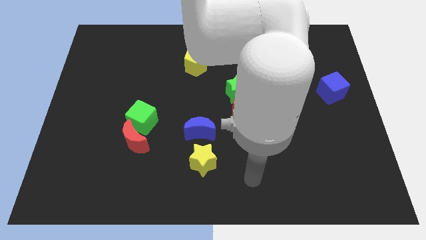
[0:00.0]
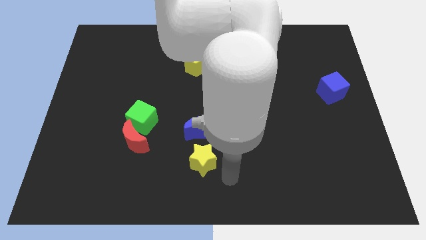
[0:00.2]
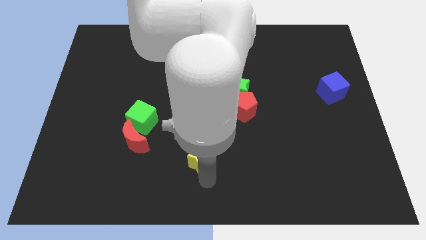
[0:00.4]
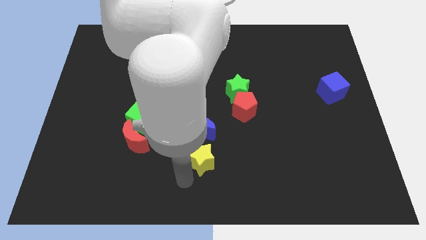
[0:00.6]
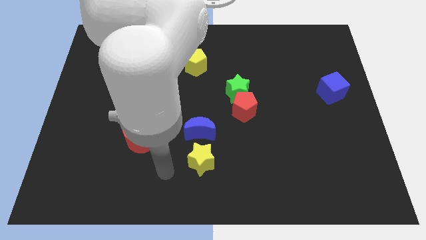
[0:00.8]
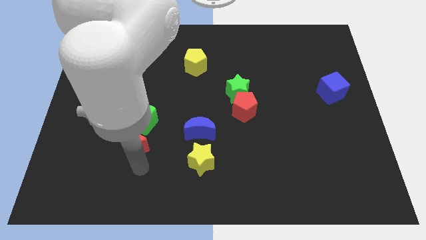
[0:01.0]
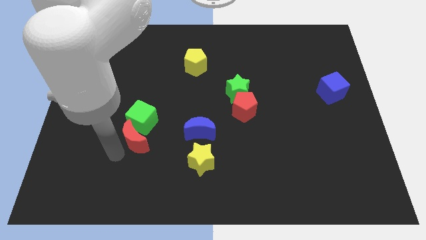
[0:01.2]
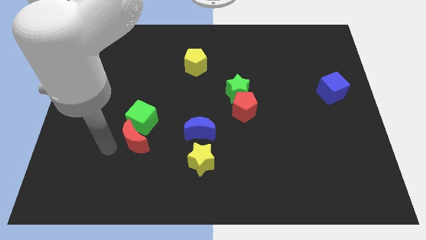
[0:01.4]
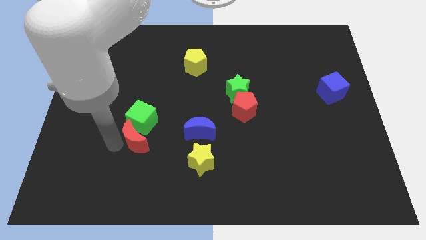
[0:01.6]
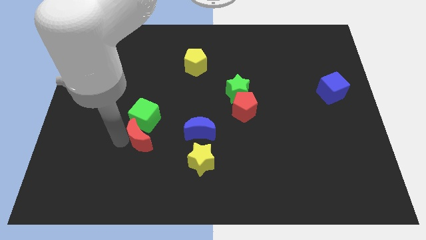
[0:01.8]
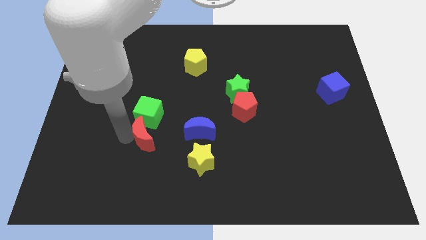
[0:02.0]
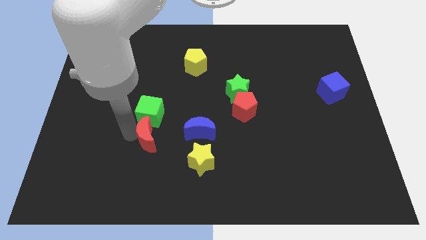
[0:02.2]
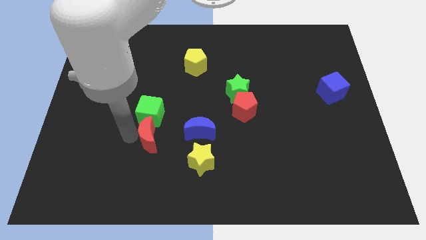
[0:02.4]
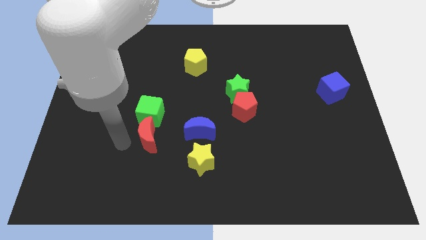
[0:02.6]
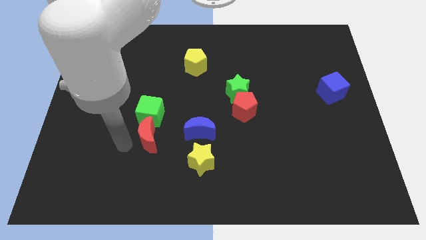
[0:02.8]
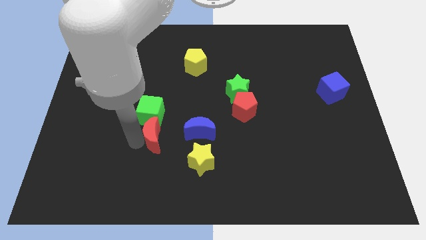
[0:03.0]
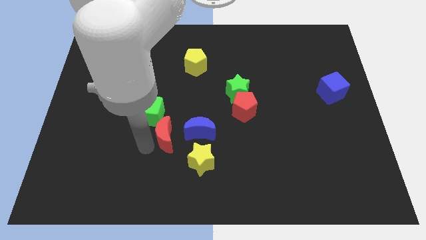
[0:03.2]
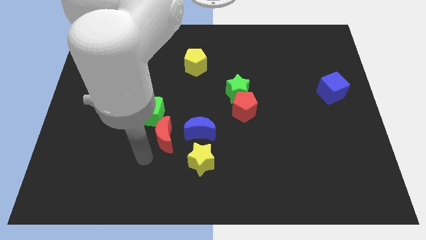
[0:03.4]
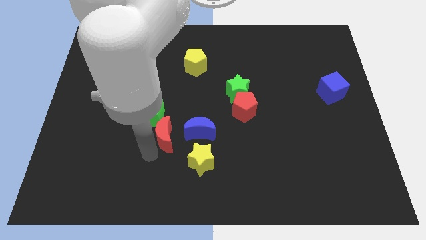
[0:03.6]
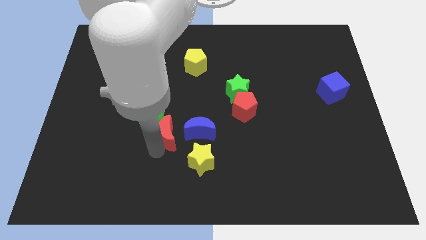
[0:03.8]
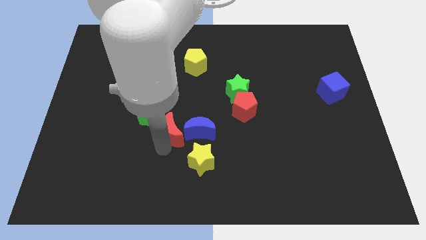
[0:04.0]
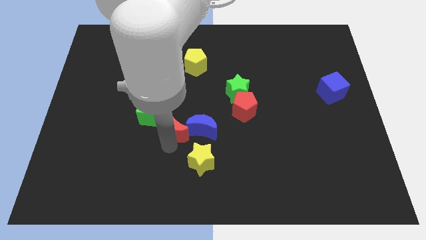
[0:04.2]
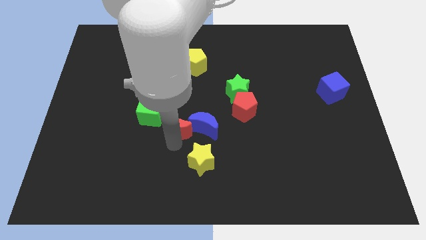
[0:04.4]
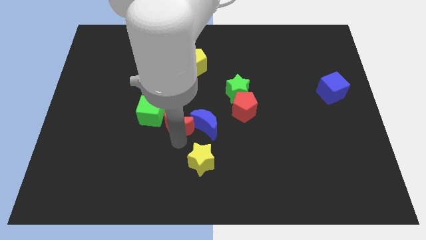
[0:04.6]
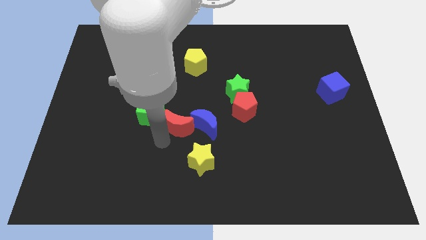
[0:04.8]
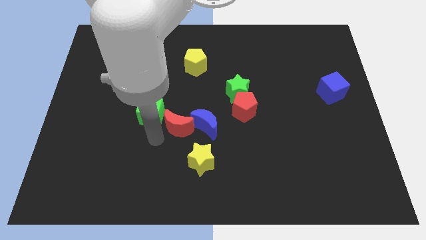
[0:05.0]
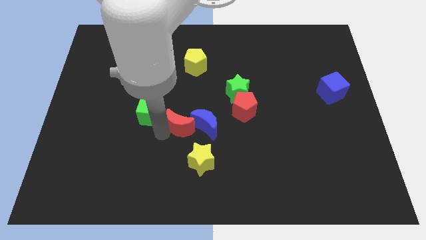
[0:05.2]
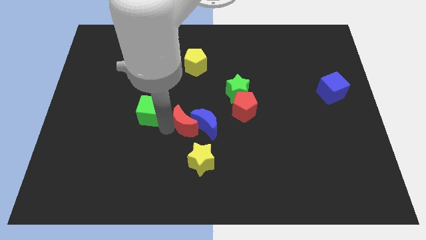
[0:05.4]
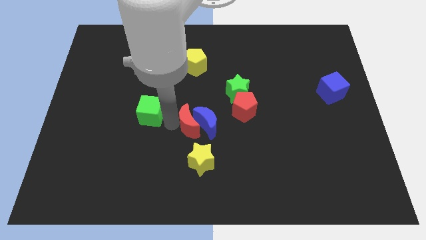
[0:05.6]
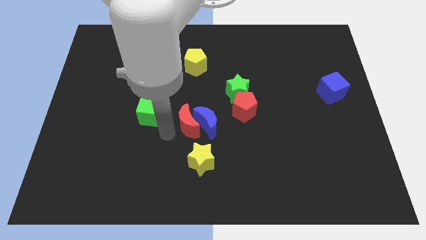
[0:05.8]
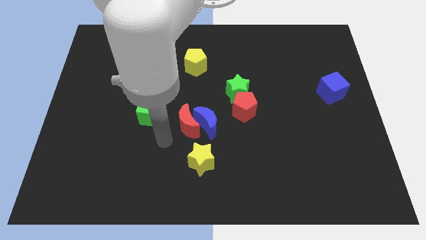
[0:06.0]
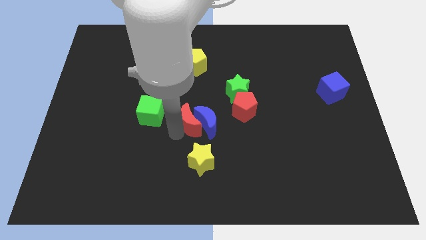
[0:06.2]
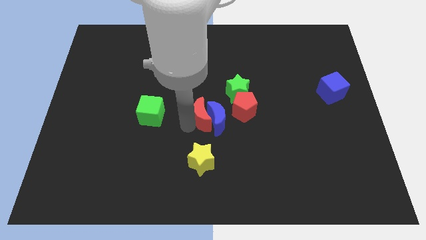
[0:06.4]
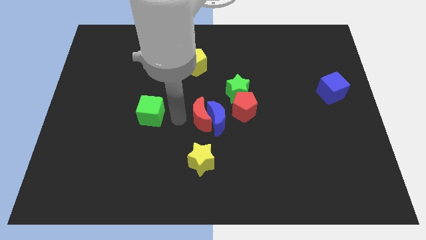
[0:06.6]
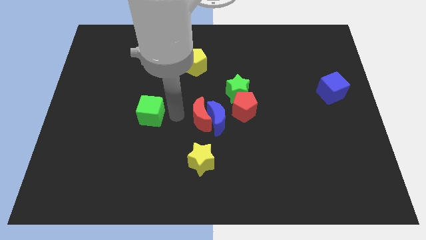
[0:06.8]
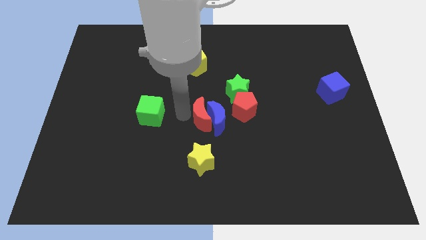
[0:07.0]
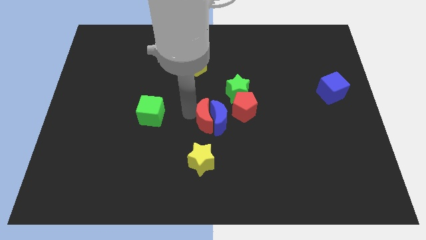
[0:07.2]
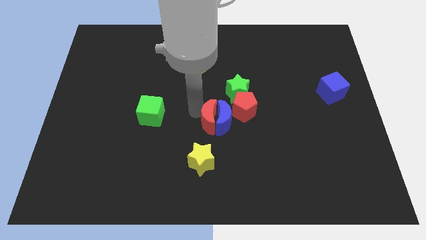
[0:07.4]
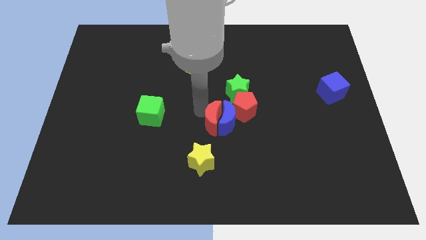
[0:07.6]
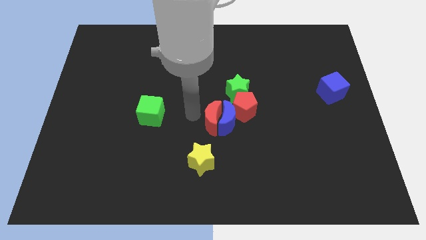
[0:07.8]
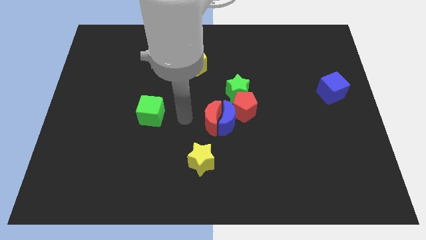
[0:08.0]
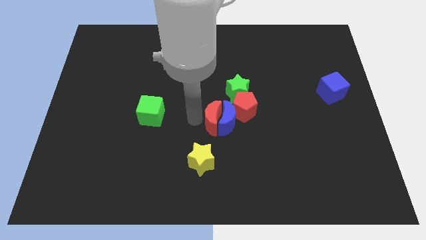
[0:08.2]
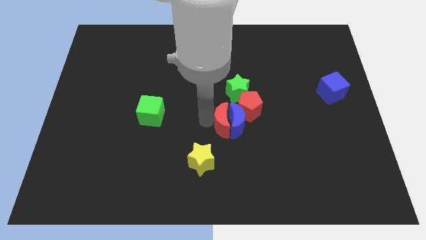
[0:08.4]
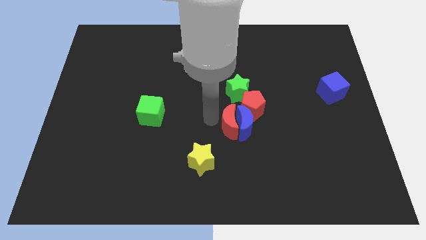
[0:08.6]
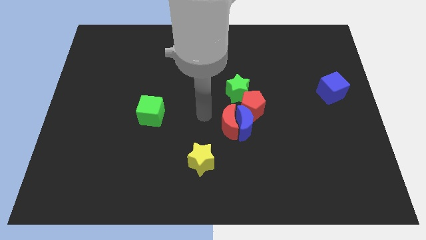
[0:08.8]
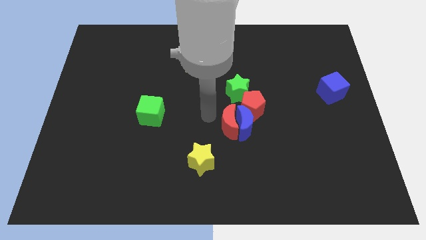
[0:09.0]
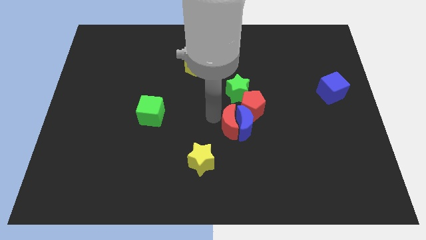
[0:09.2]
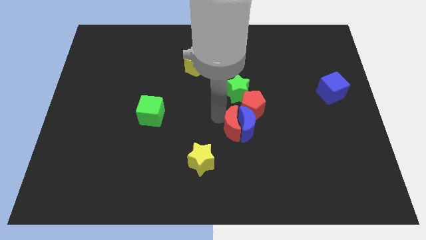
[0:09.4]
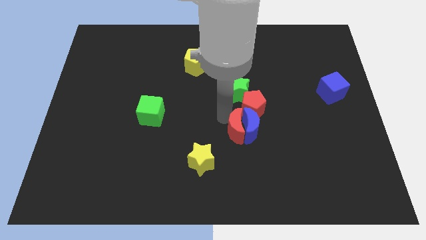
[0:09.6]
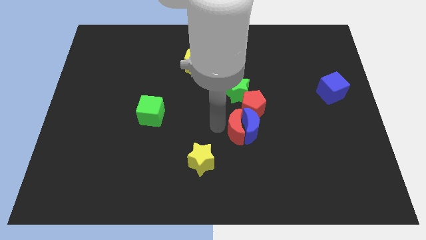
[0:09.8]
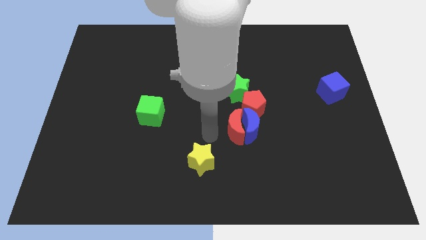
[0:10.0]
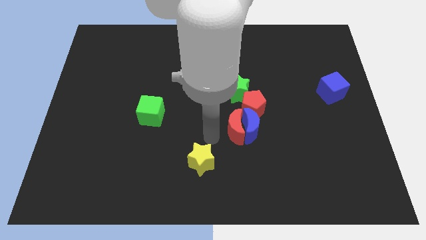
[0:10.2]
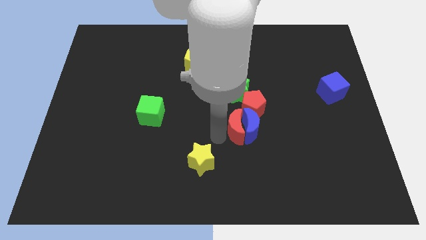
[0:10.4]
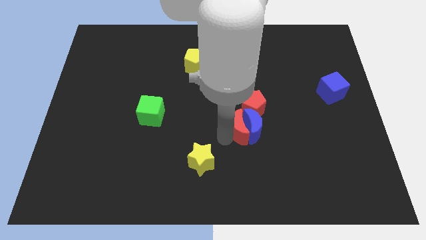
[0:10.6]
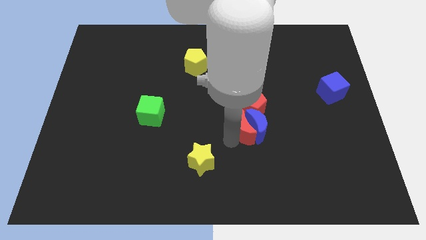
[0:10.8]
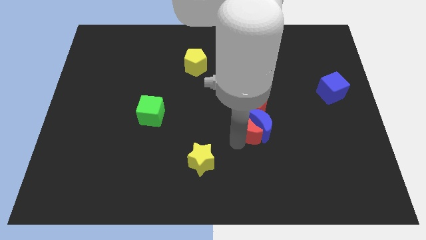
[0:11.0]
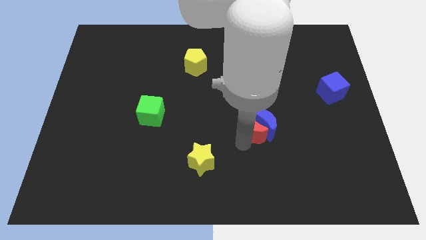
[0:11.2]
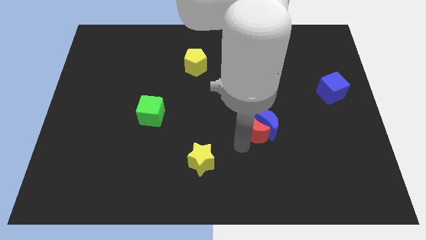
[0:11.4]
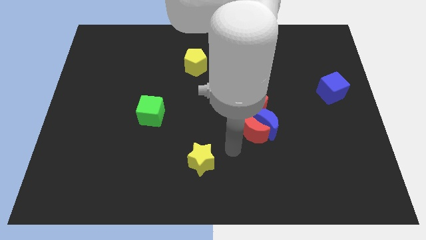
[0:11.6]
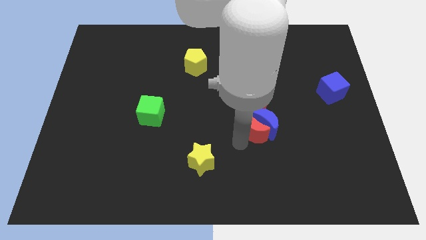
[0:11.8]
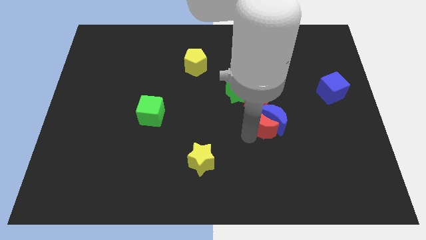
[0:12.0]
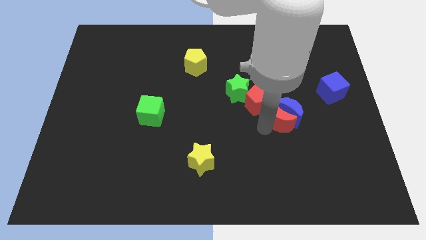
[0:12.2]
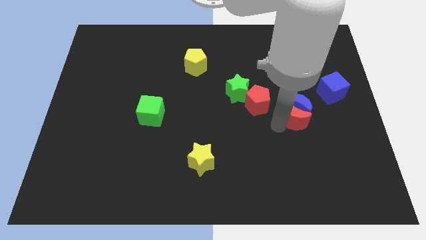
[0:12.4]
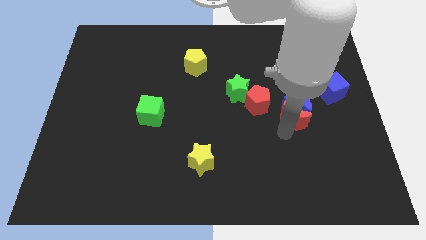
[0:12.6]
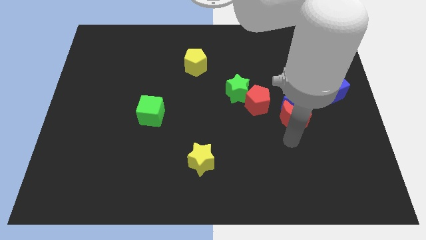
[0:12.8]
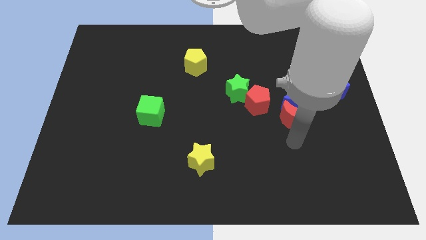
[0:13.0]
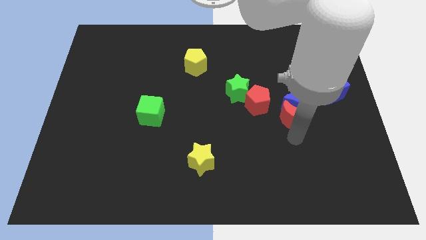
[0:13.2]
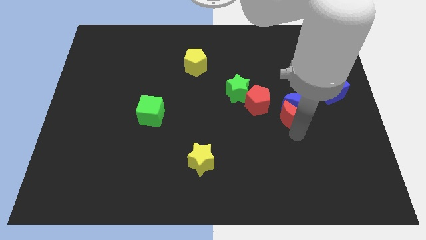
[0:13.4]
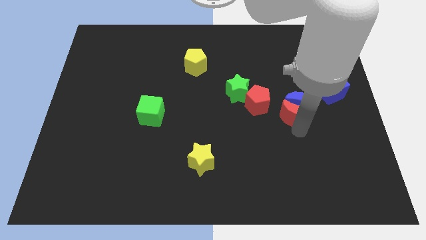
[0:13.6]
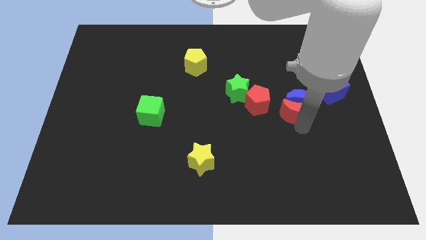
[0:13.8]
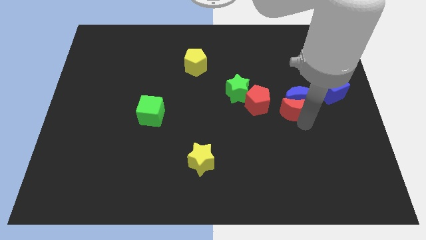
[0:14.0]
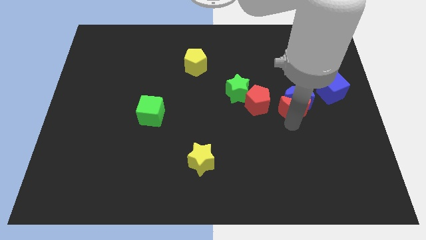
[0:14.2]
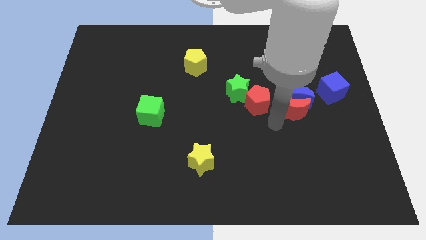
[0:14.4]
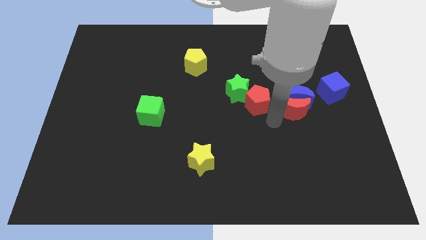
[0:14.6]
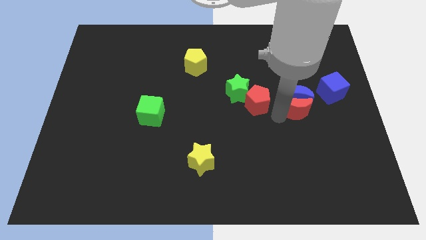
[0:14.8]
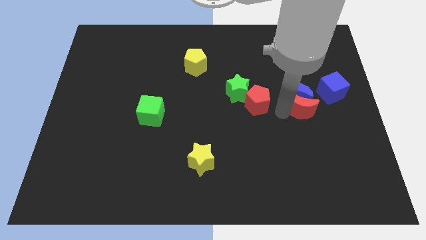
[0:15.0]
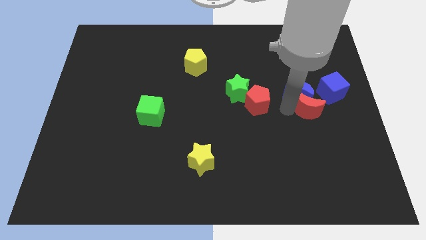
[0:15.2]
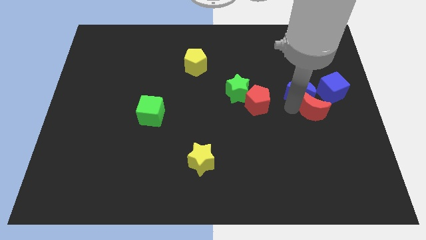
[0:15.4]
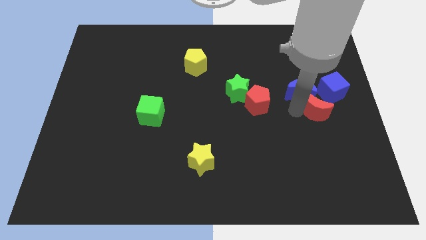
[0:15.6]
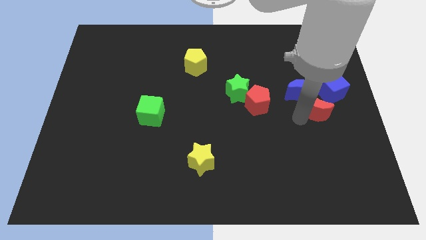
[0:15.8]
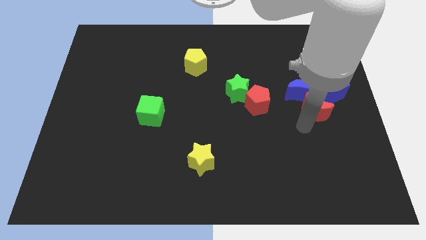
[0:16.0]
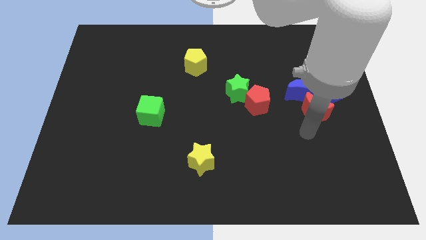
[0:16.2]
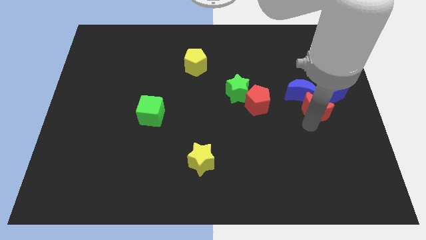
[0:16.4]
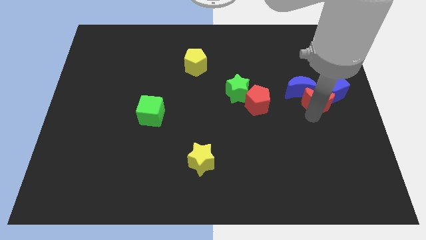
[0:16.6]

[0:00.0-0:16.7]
slide the red moon next to the blue cube
